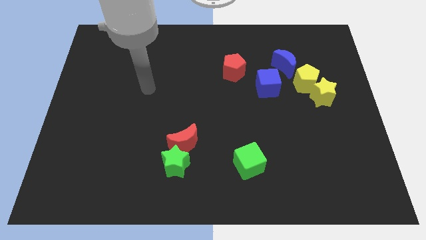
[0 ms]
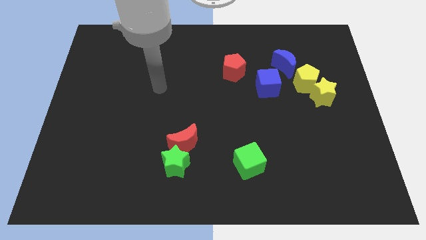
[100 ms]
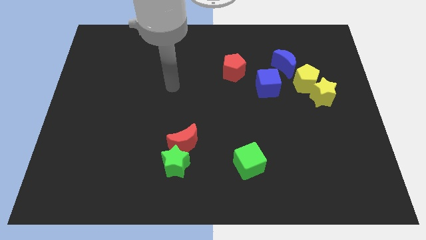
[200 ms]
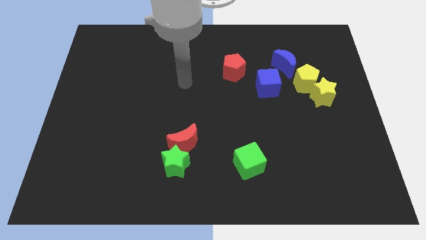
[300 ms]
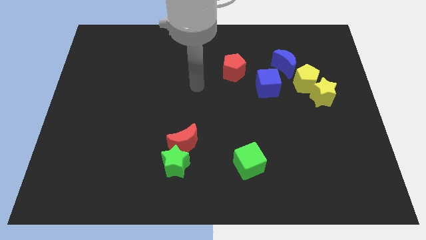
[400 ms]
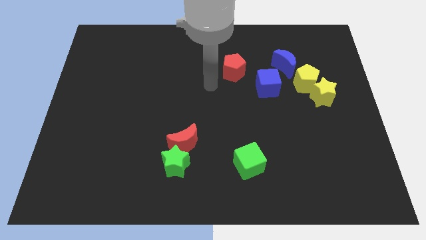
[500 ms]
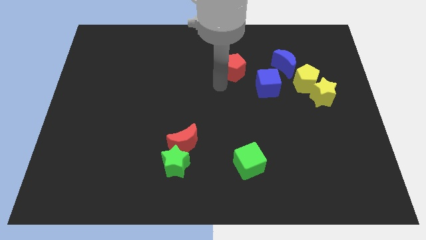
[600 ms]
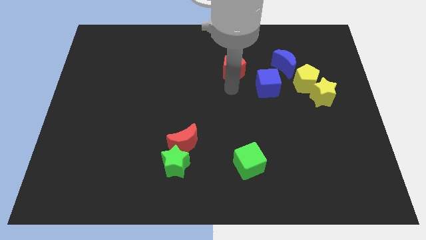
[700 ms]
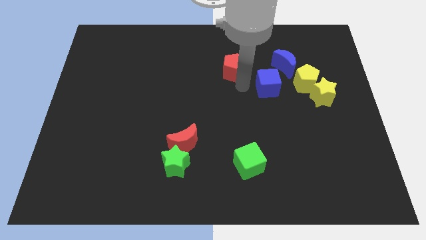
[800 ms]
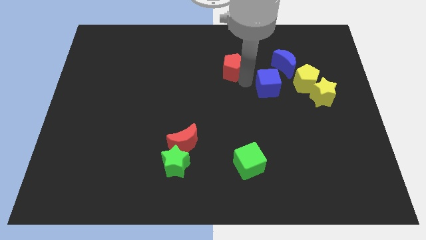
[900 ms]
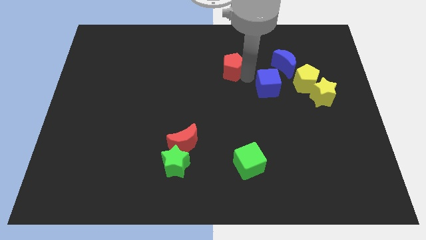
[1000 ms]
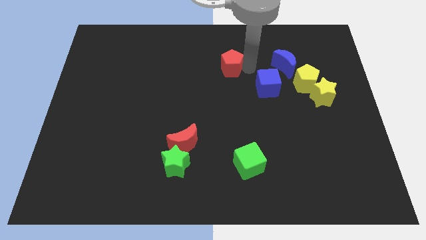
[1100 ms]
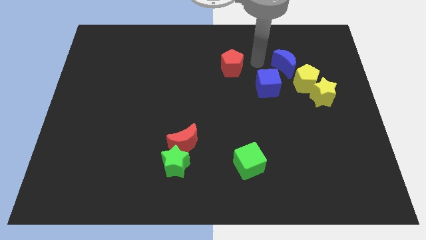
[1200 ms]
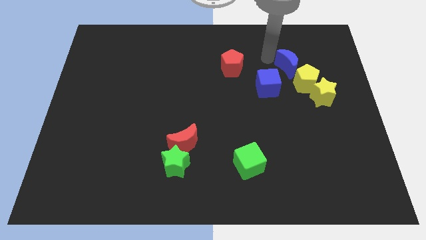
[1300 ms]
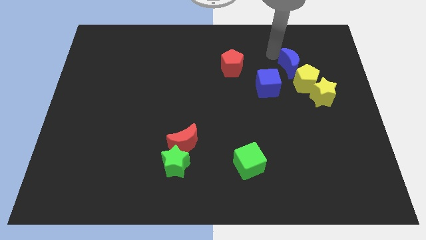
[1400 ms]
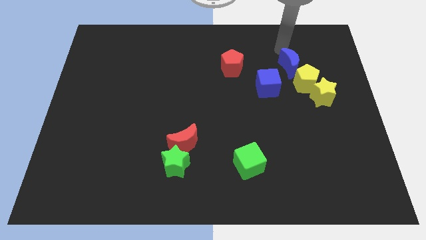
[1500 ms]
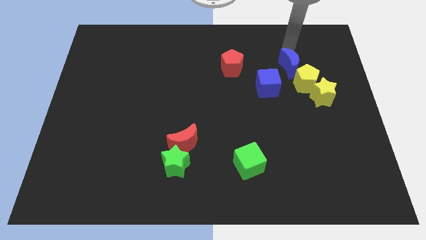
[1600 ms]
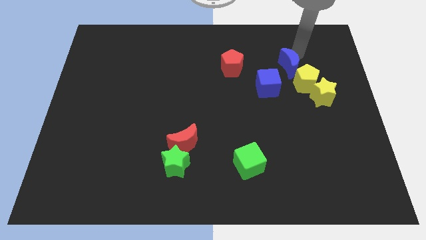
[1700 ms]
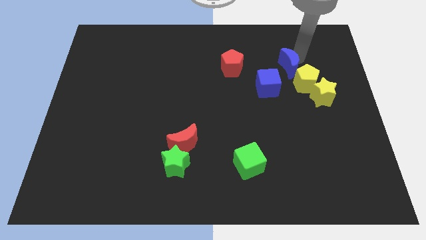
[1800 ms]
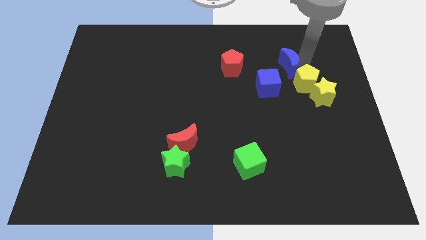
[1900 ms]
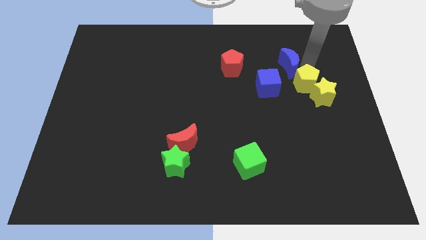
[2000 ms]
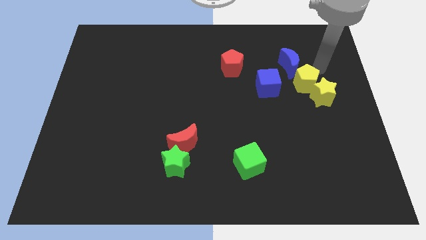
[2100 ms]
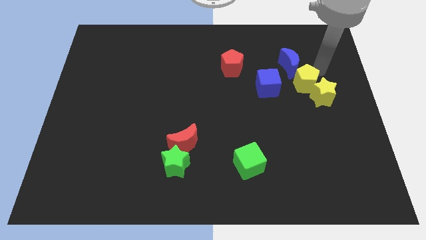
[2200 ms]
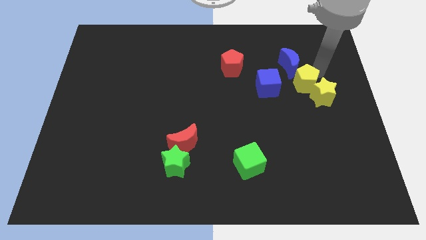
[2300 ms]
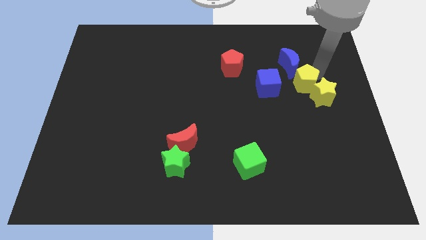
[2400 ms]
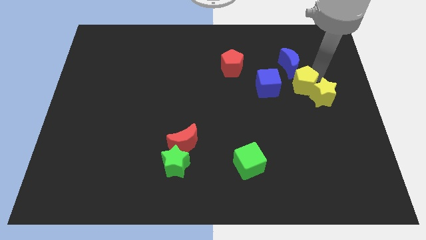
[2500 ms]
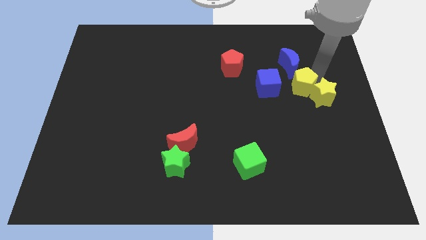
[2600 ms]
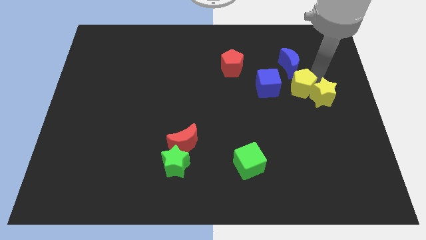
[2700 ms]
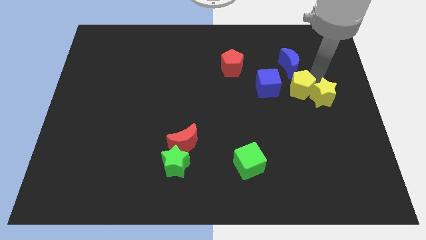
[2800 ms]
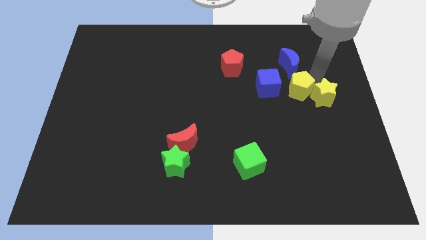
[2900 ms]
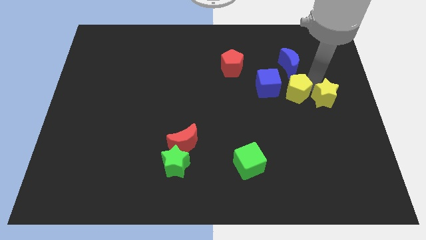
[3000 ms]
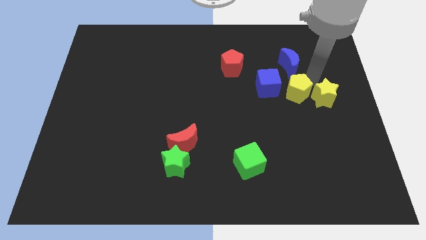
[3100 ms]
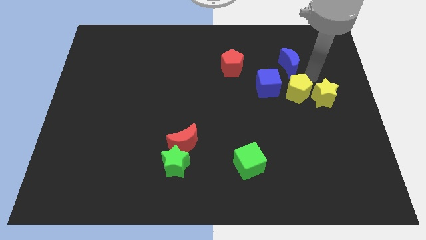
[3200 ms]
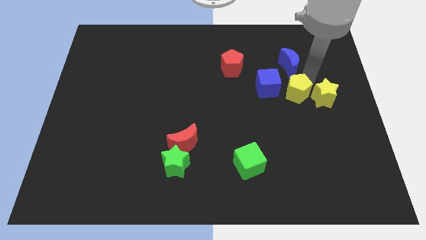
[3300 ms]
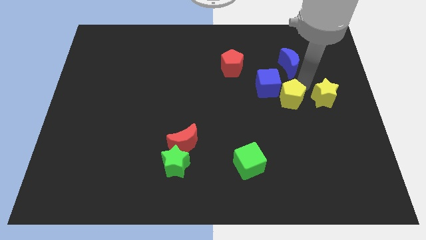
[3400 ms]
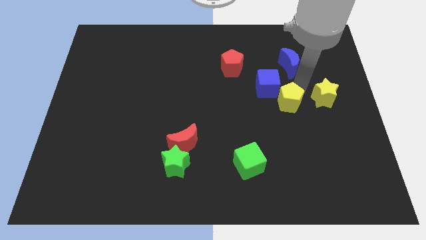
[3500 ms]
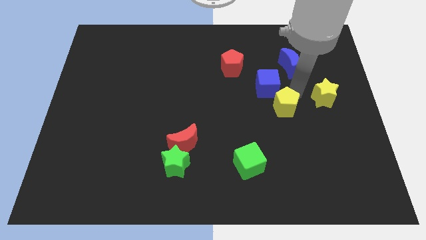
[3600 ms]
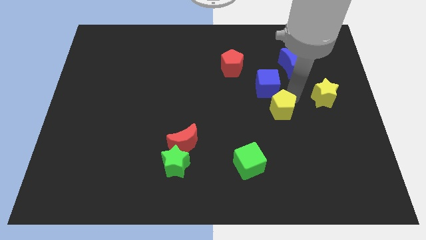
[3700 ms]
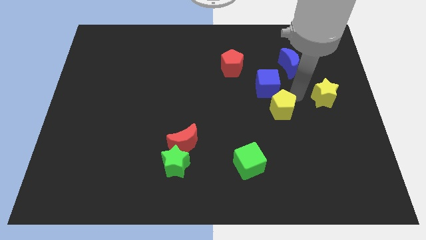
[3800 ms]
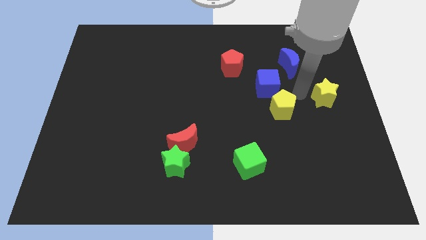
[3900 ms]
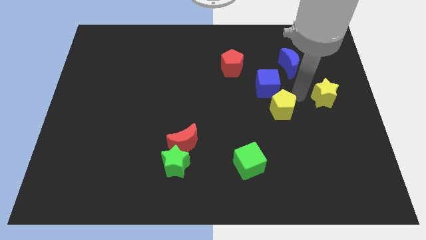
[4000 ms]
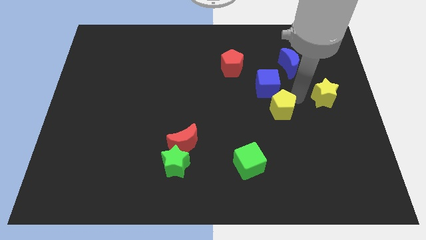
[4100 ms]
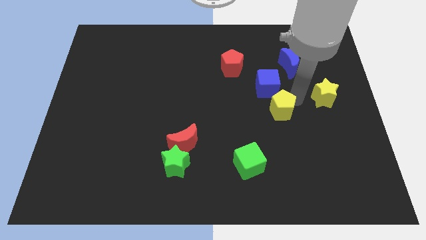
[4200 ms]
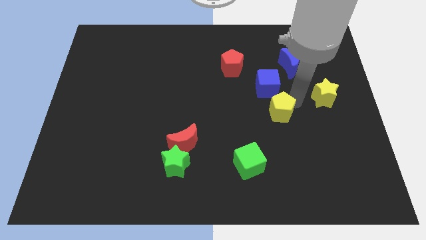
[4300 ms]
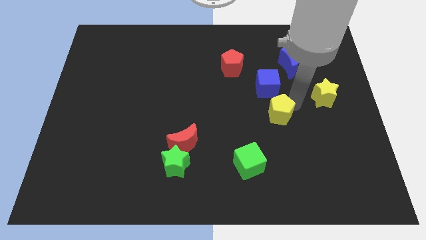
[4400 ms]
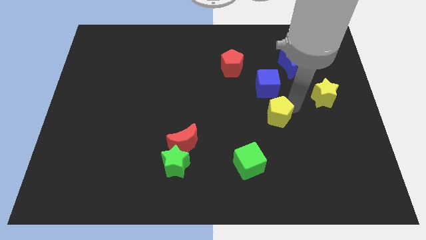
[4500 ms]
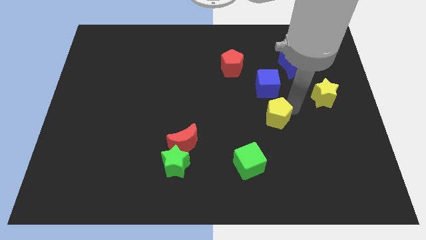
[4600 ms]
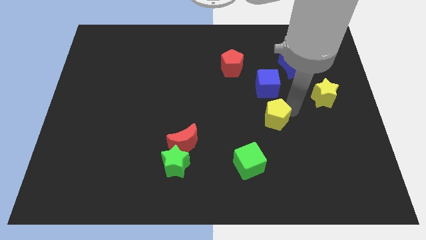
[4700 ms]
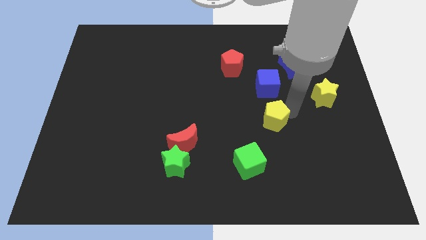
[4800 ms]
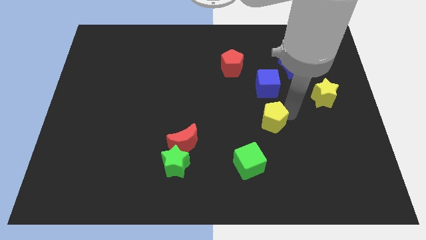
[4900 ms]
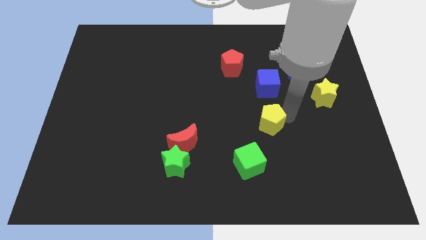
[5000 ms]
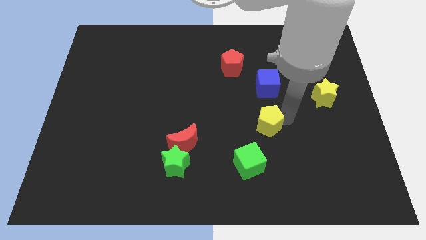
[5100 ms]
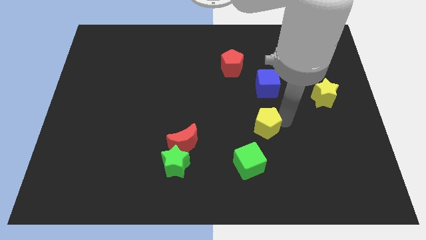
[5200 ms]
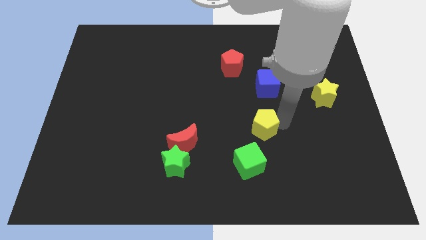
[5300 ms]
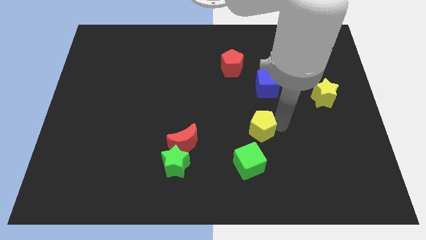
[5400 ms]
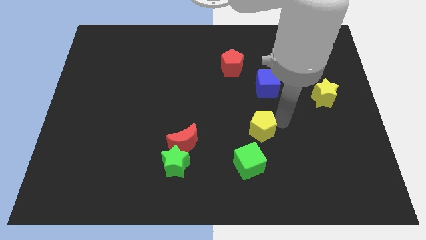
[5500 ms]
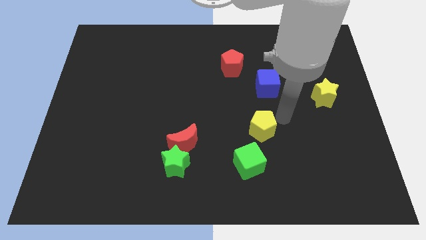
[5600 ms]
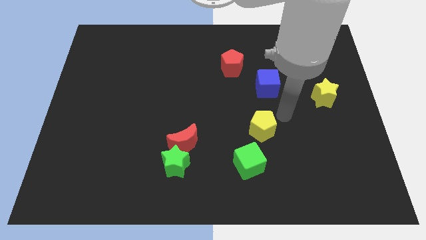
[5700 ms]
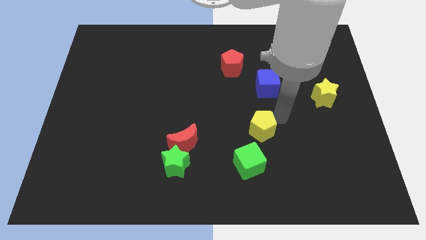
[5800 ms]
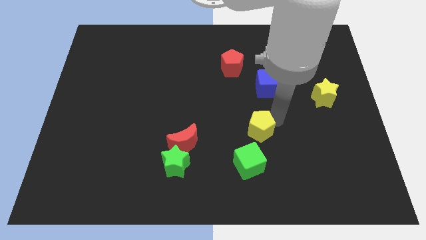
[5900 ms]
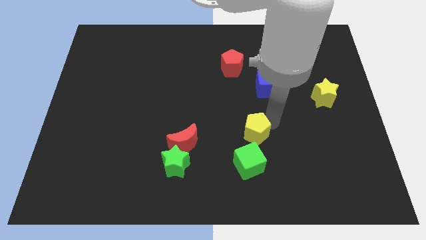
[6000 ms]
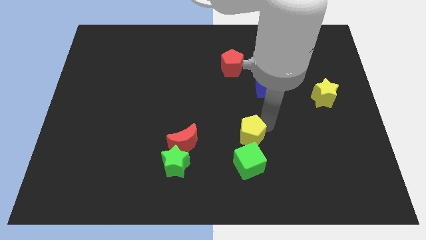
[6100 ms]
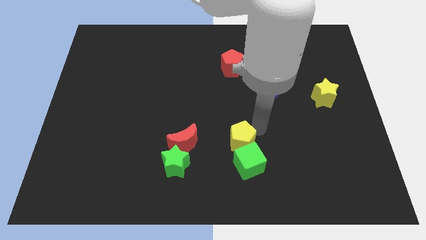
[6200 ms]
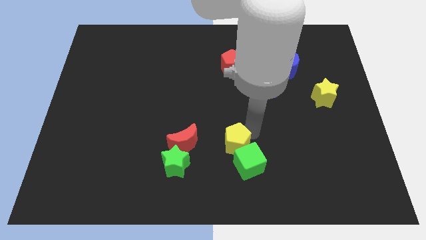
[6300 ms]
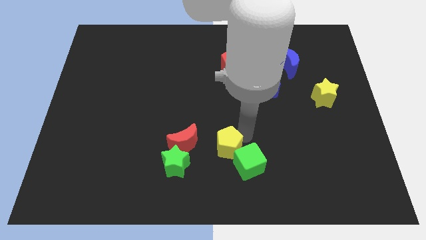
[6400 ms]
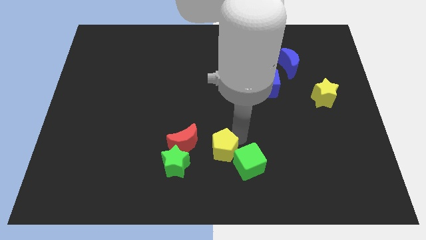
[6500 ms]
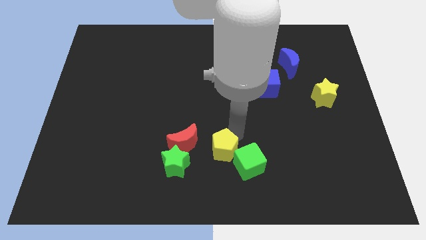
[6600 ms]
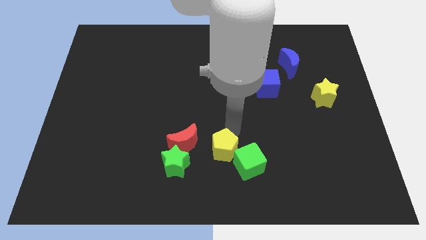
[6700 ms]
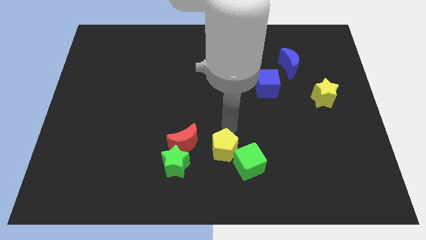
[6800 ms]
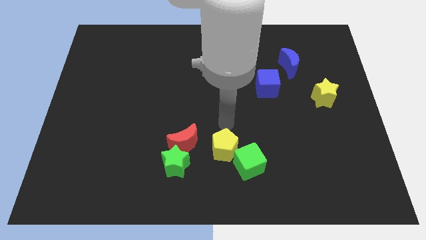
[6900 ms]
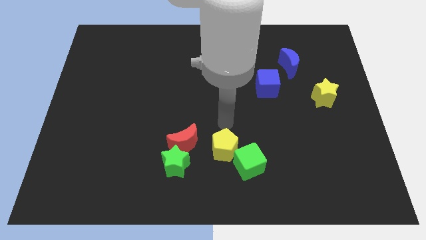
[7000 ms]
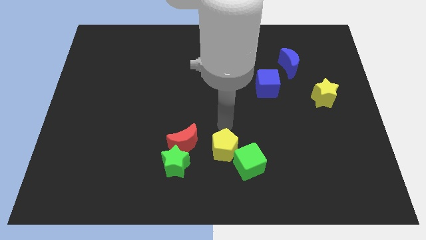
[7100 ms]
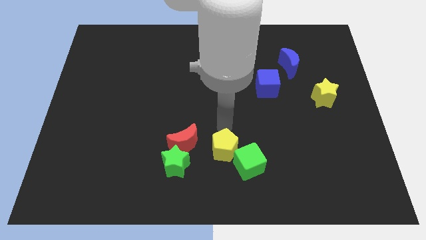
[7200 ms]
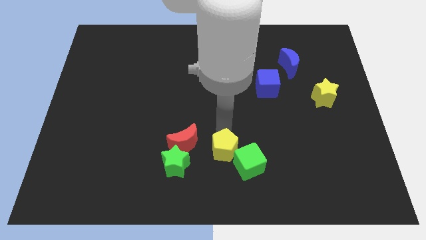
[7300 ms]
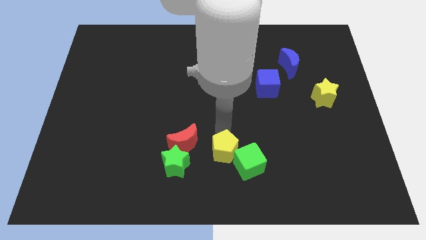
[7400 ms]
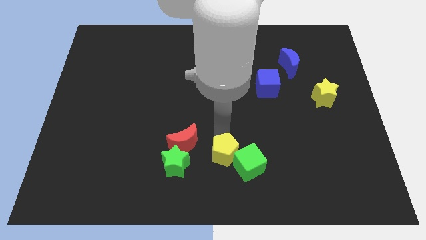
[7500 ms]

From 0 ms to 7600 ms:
push the yellow pentagon to the bottom

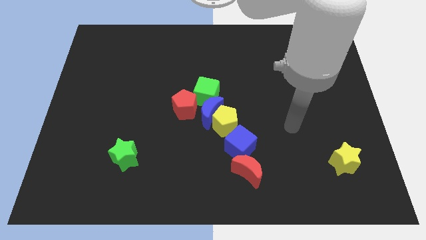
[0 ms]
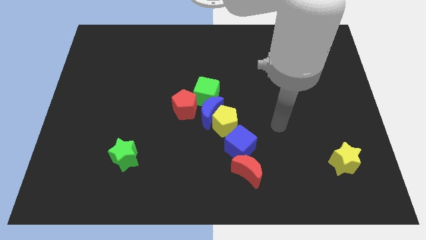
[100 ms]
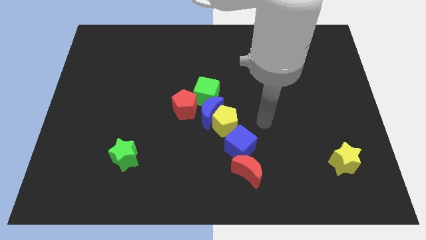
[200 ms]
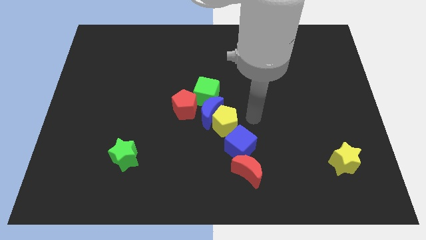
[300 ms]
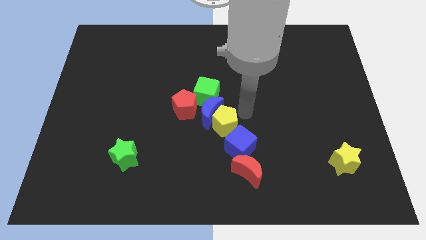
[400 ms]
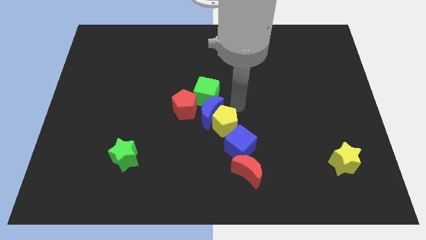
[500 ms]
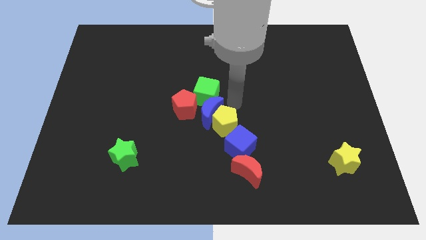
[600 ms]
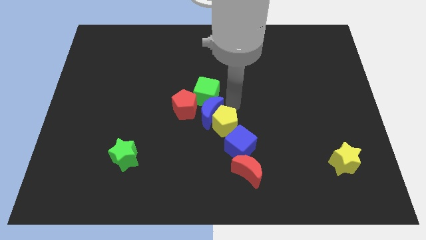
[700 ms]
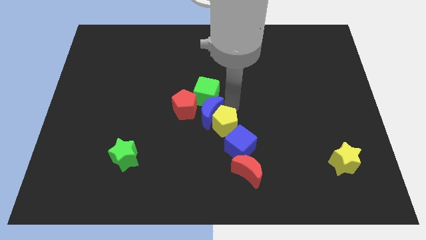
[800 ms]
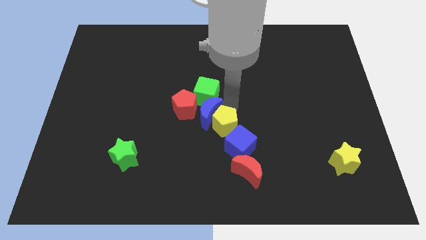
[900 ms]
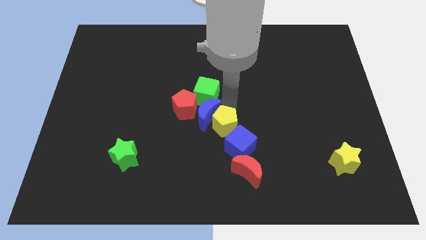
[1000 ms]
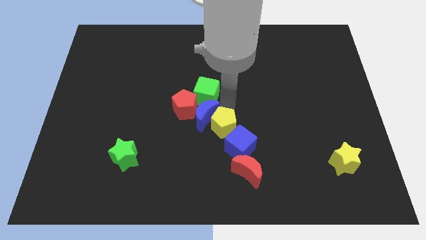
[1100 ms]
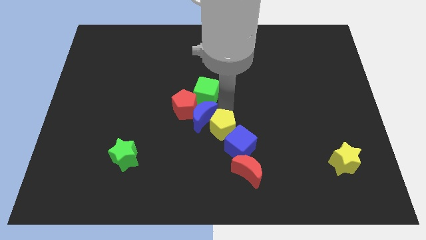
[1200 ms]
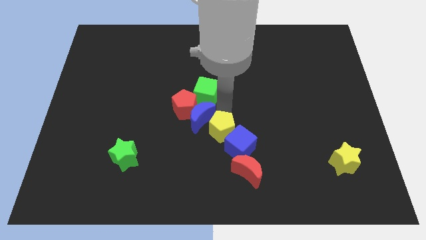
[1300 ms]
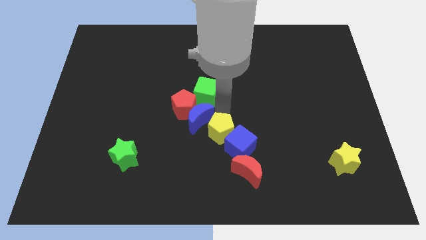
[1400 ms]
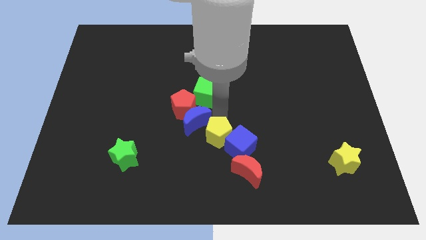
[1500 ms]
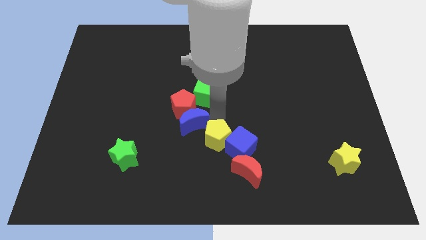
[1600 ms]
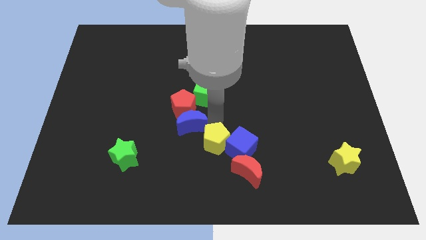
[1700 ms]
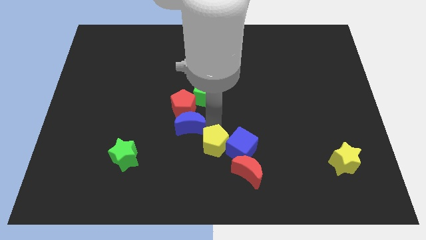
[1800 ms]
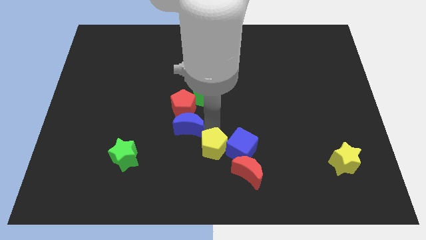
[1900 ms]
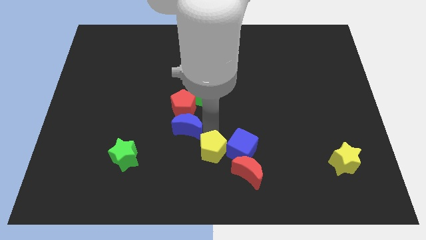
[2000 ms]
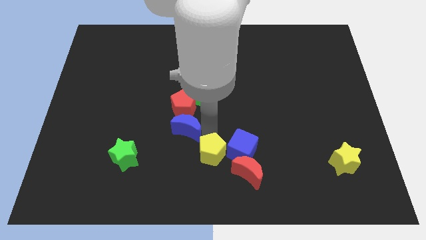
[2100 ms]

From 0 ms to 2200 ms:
slide the yellow pentagon to the bottom side
